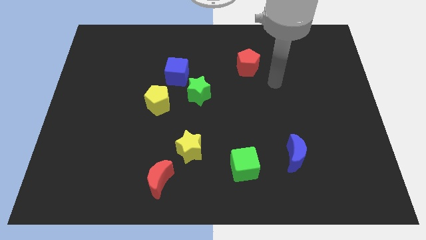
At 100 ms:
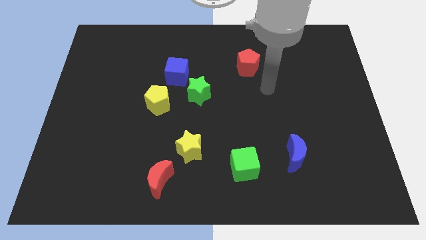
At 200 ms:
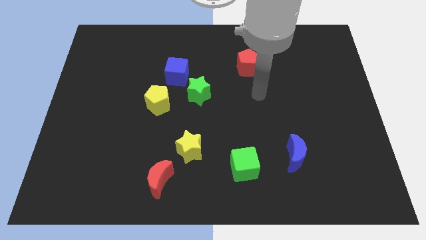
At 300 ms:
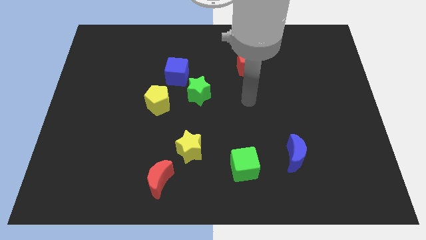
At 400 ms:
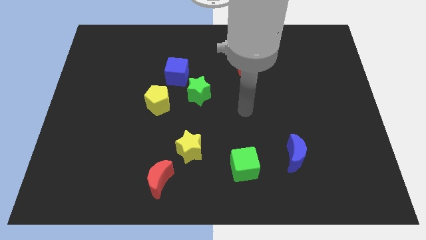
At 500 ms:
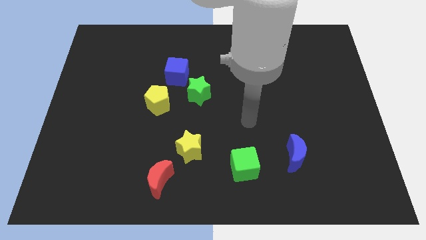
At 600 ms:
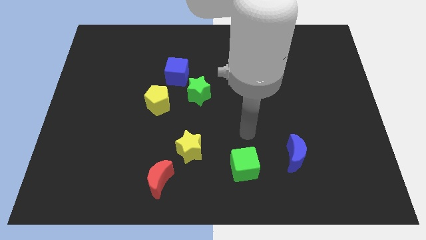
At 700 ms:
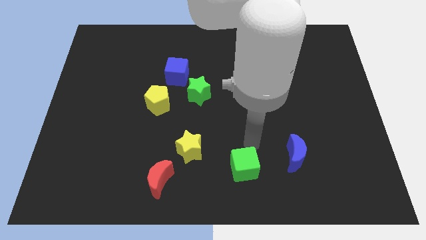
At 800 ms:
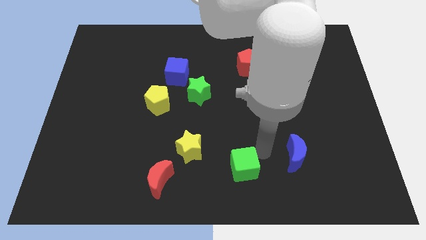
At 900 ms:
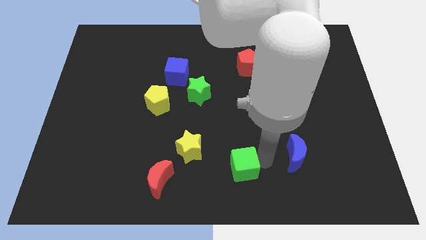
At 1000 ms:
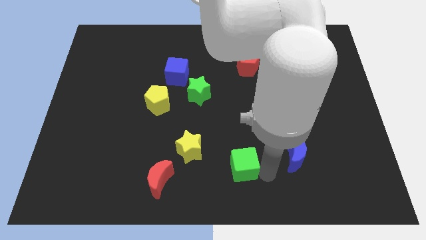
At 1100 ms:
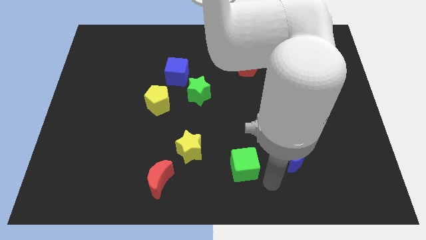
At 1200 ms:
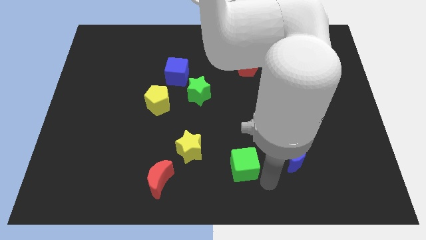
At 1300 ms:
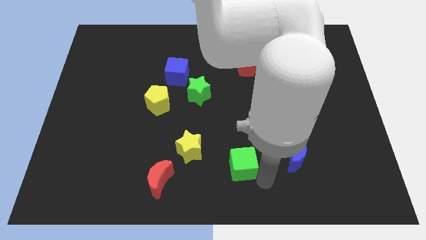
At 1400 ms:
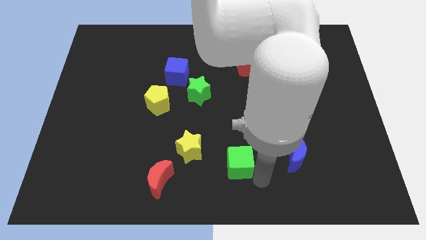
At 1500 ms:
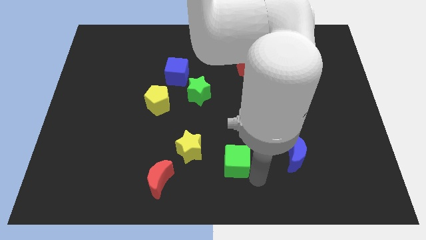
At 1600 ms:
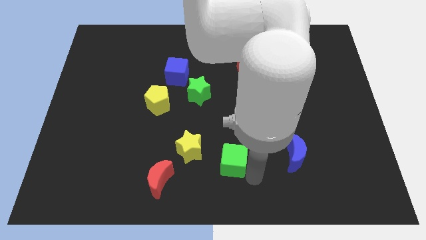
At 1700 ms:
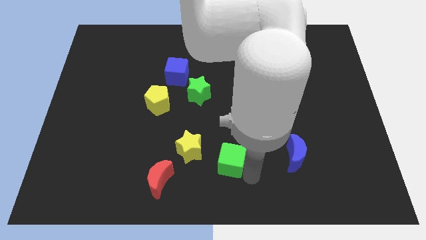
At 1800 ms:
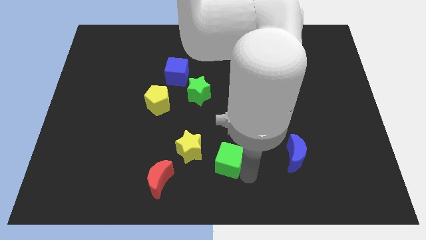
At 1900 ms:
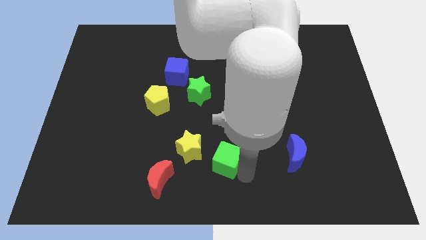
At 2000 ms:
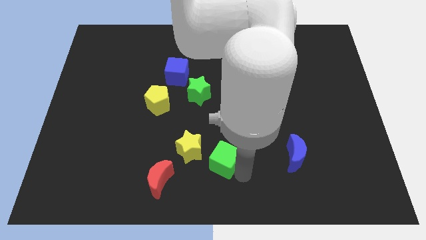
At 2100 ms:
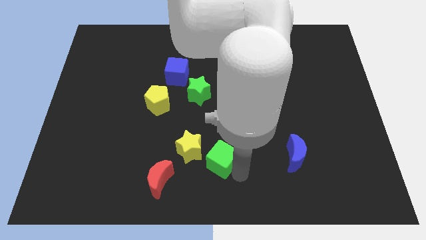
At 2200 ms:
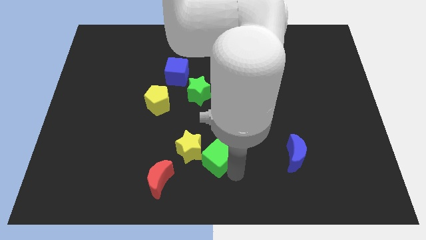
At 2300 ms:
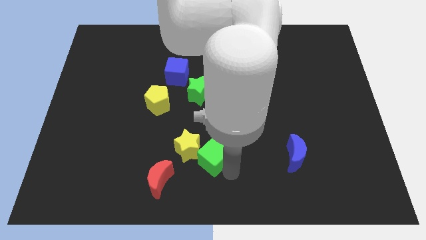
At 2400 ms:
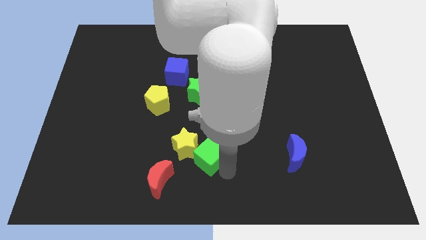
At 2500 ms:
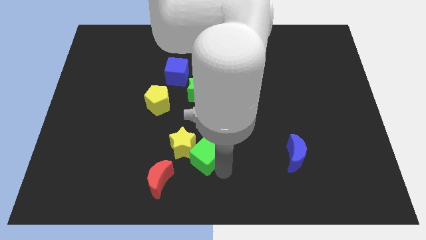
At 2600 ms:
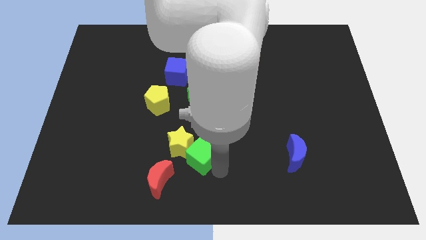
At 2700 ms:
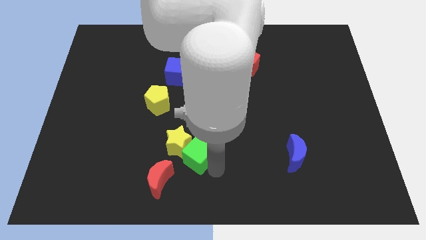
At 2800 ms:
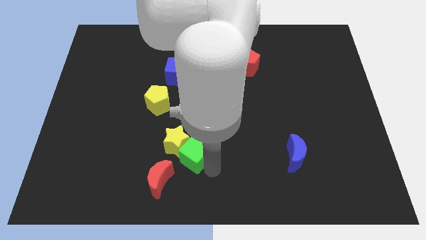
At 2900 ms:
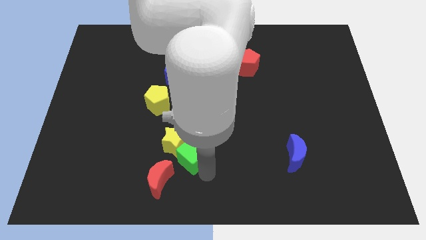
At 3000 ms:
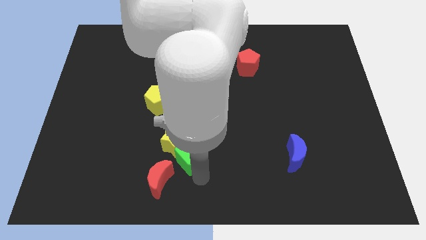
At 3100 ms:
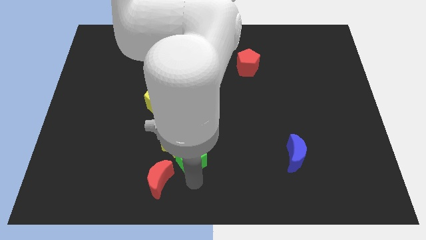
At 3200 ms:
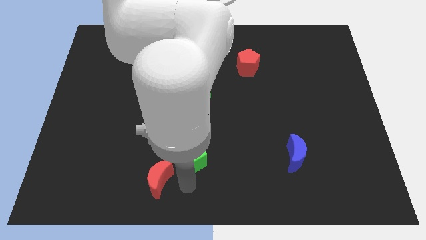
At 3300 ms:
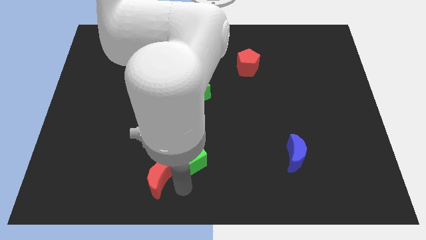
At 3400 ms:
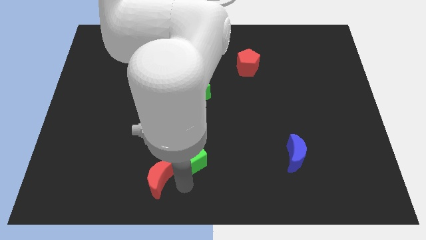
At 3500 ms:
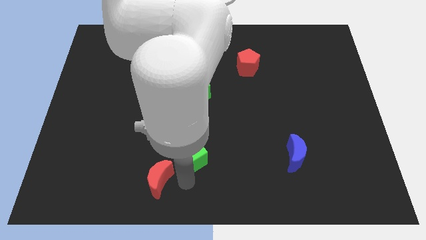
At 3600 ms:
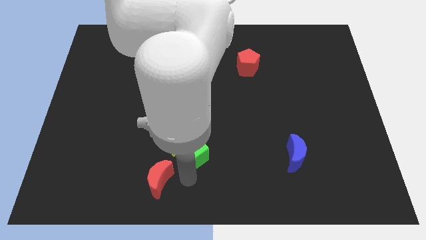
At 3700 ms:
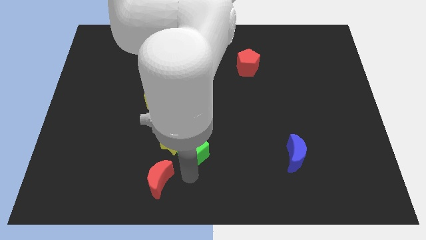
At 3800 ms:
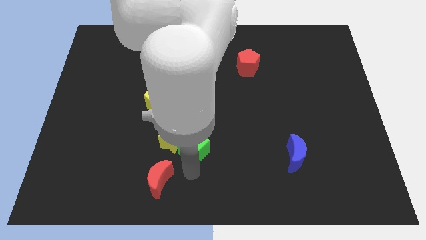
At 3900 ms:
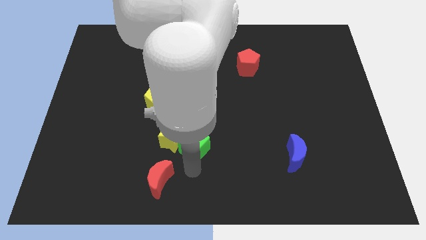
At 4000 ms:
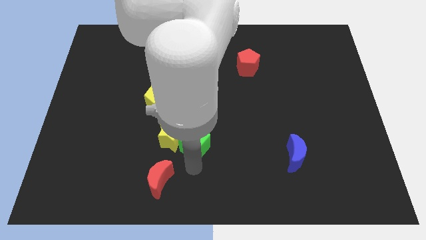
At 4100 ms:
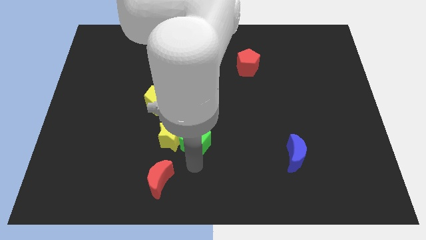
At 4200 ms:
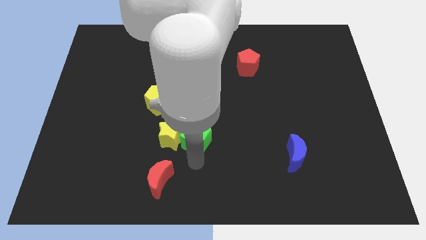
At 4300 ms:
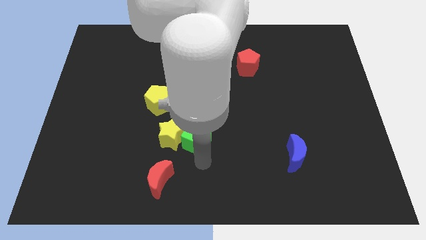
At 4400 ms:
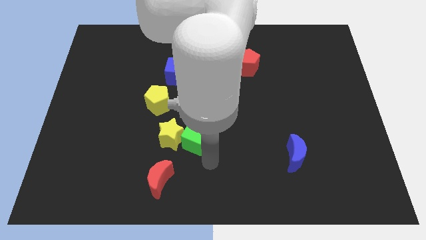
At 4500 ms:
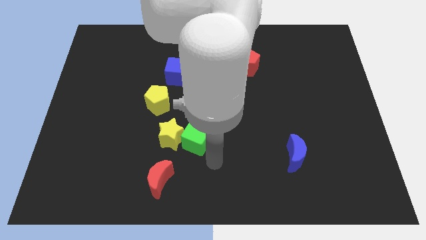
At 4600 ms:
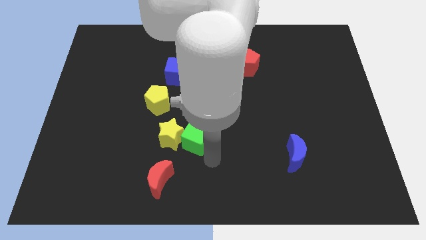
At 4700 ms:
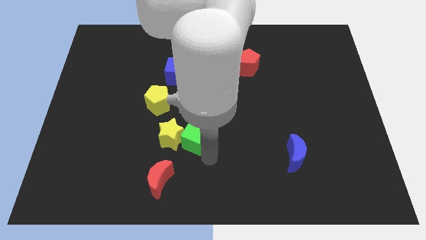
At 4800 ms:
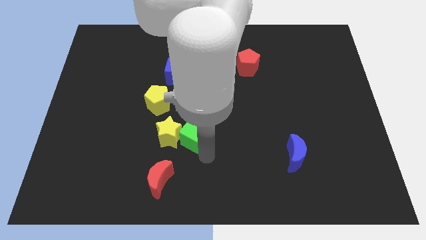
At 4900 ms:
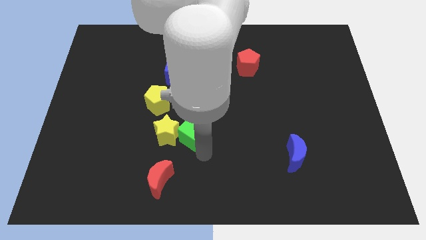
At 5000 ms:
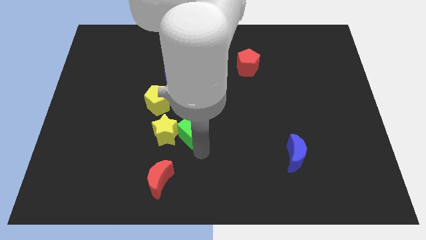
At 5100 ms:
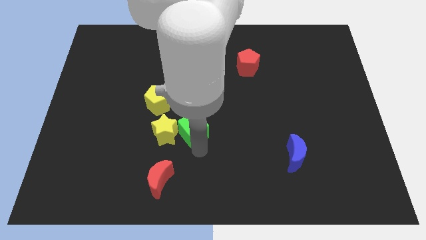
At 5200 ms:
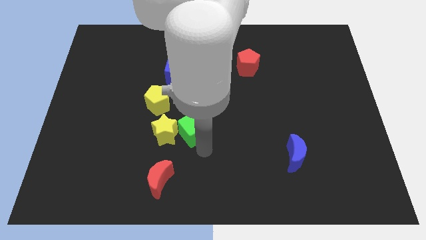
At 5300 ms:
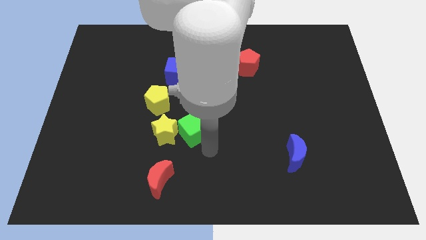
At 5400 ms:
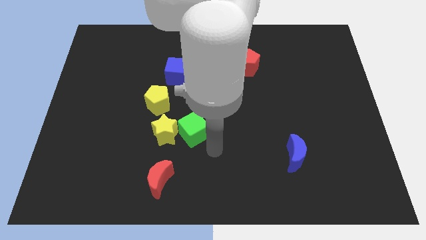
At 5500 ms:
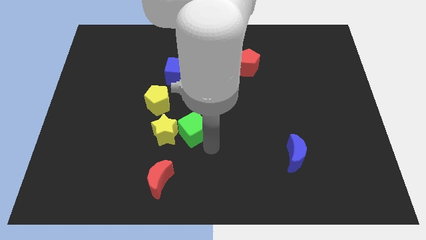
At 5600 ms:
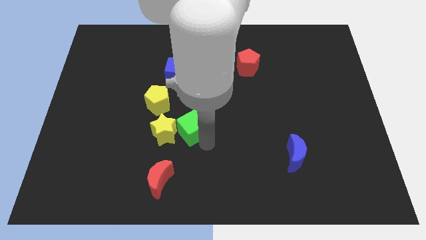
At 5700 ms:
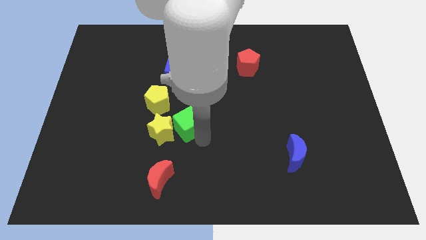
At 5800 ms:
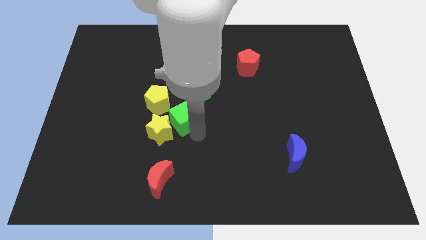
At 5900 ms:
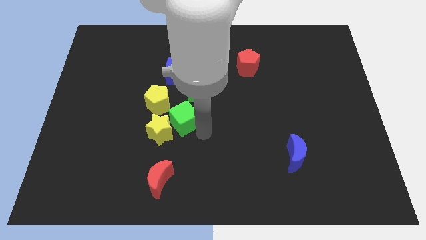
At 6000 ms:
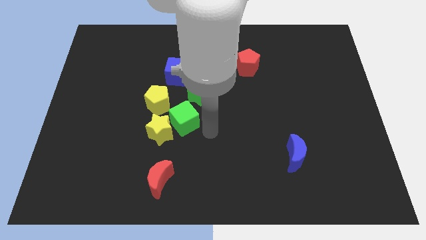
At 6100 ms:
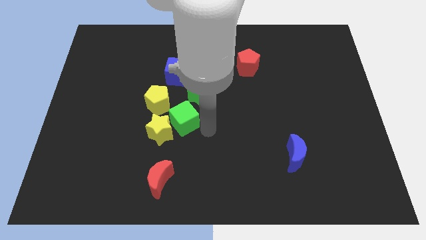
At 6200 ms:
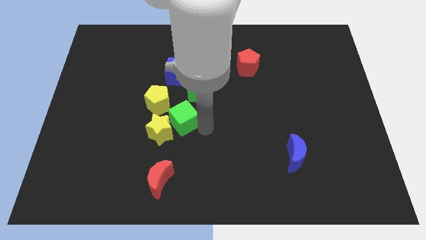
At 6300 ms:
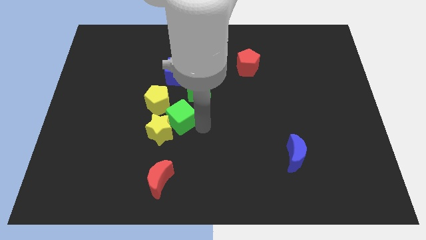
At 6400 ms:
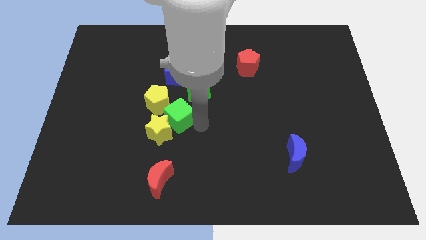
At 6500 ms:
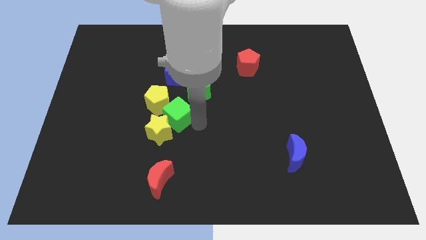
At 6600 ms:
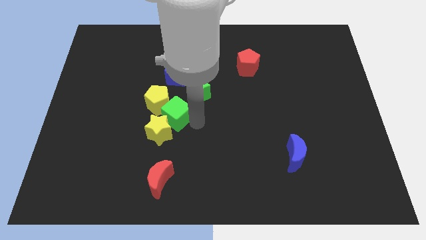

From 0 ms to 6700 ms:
slide the green cube towards the yellow pentagon

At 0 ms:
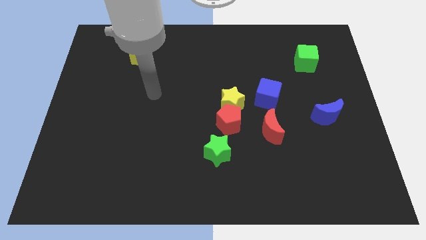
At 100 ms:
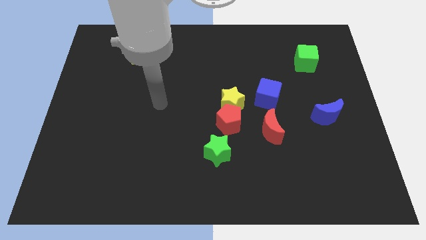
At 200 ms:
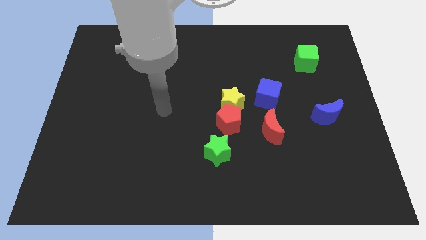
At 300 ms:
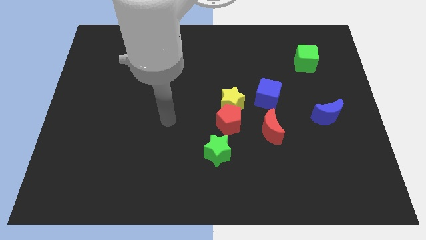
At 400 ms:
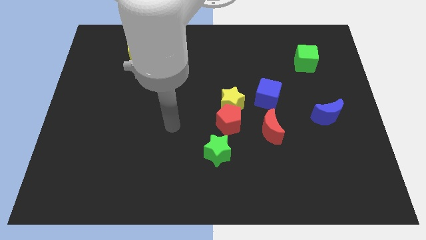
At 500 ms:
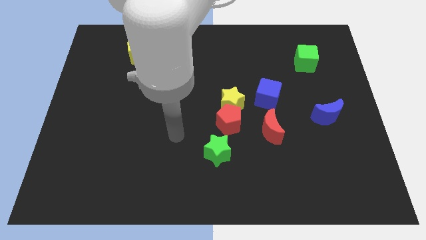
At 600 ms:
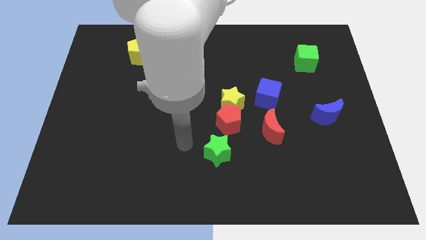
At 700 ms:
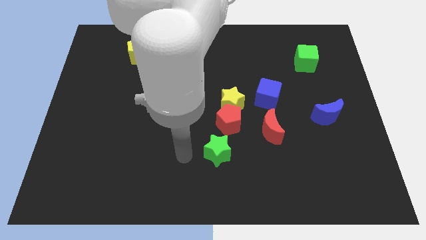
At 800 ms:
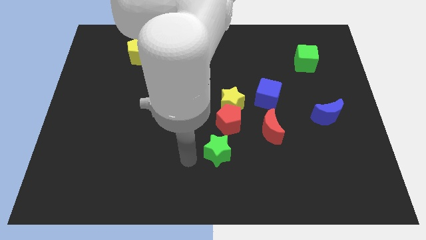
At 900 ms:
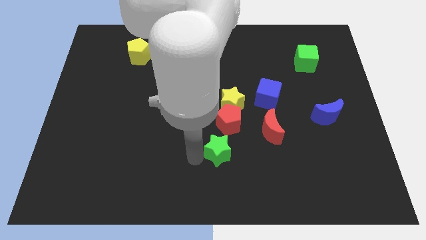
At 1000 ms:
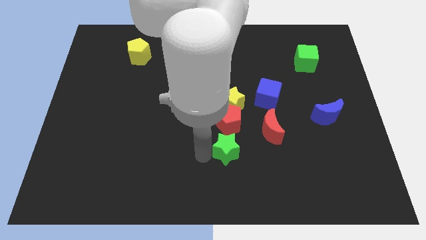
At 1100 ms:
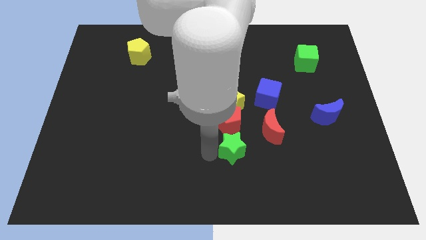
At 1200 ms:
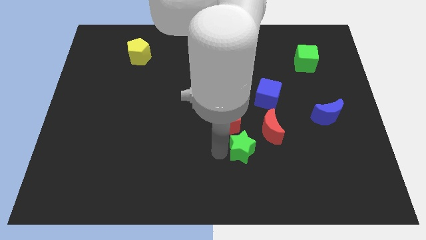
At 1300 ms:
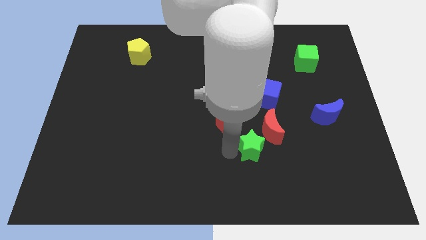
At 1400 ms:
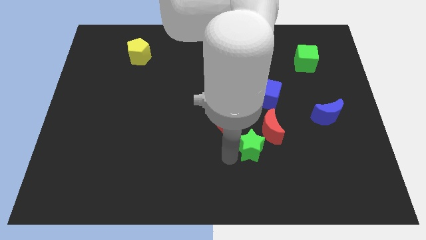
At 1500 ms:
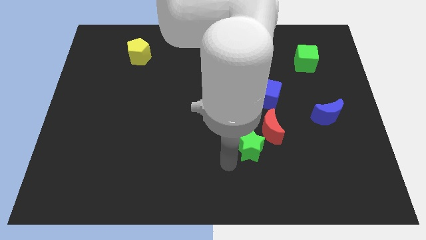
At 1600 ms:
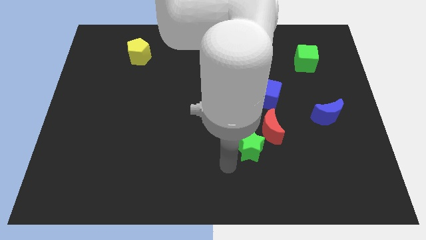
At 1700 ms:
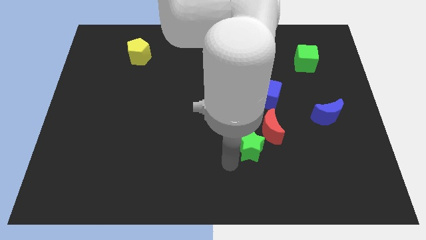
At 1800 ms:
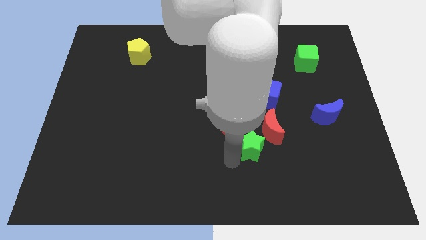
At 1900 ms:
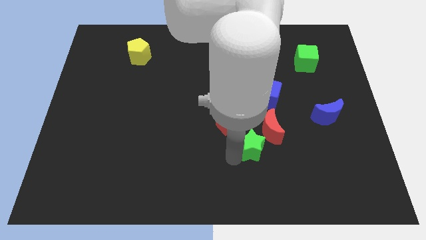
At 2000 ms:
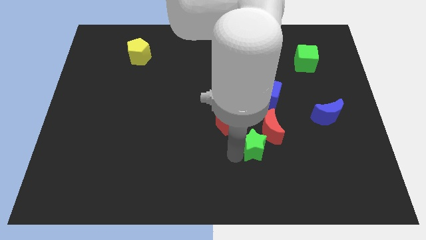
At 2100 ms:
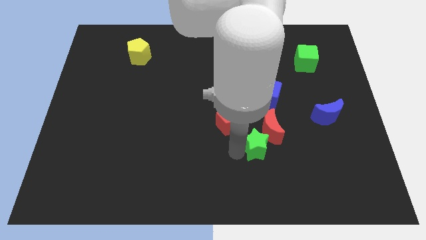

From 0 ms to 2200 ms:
move the green star towards the red moon
